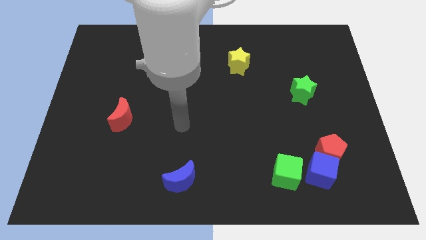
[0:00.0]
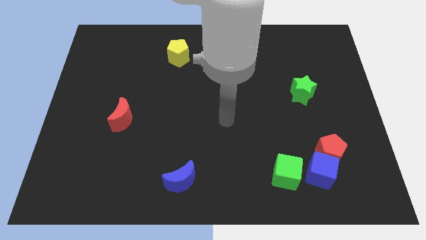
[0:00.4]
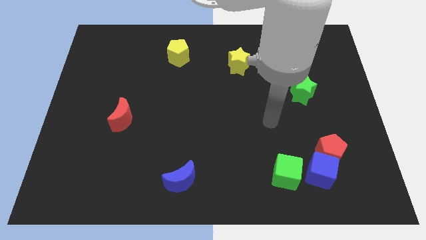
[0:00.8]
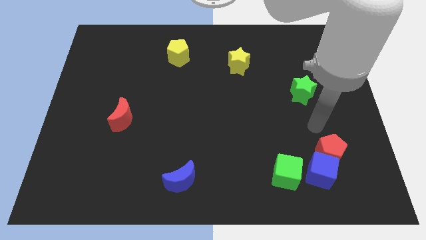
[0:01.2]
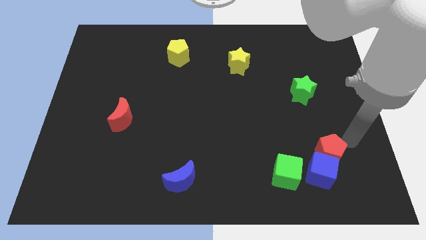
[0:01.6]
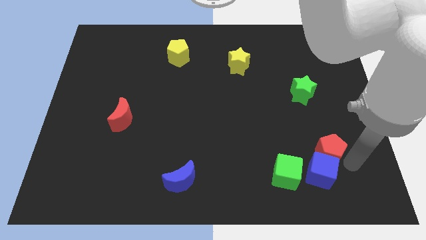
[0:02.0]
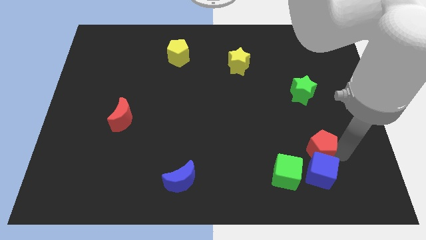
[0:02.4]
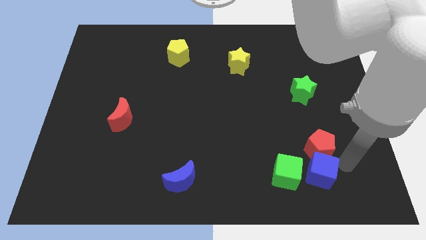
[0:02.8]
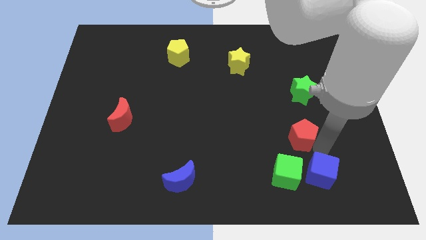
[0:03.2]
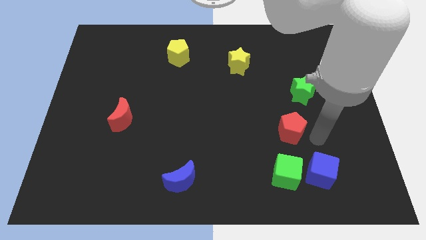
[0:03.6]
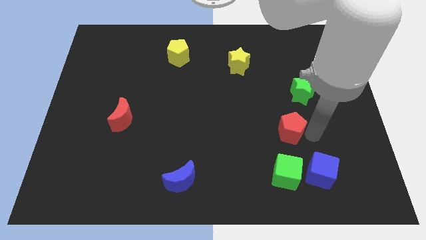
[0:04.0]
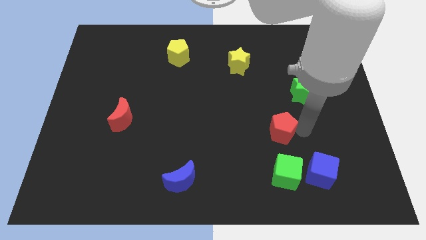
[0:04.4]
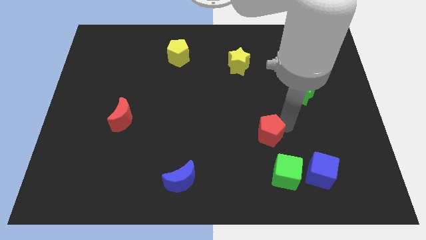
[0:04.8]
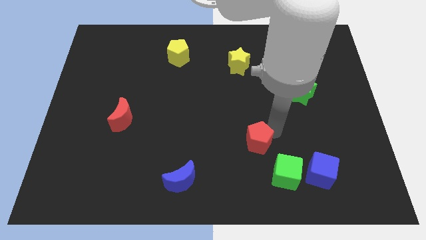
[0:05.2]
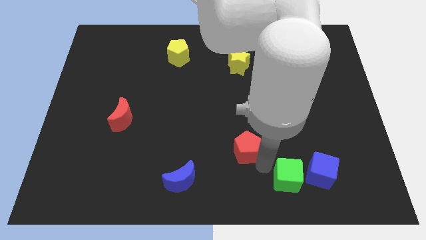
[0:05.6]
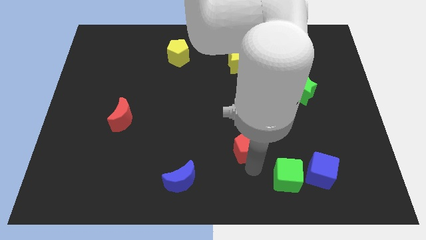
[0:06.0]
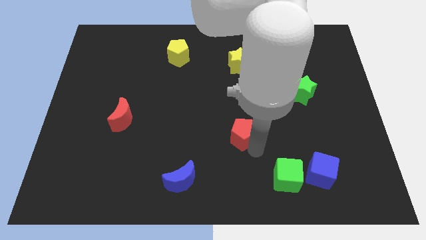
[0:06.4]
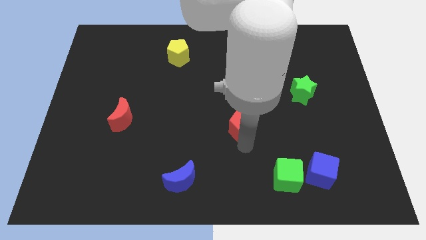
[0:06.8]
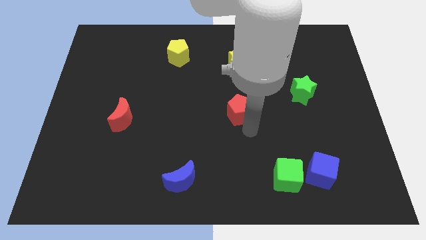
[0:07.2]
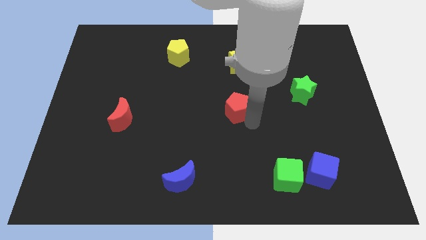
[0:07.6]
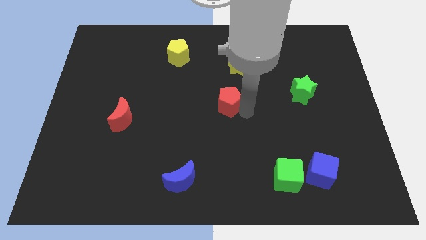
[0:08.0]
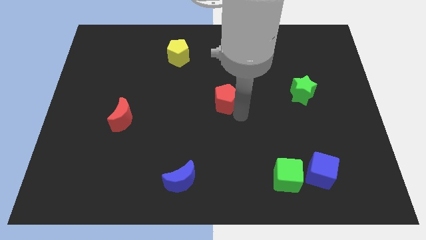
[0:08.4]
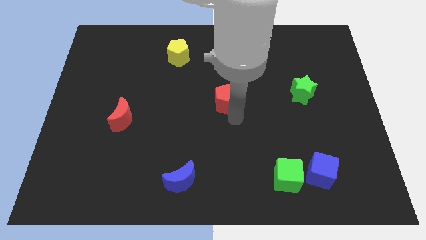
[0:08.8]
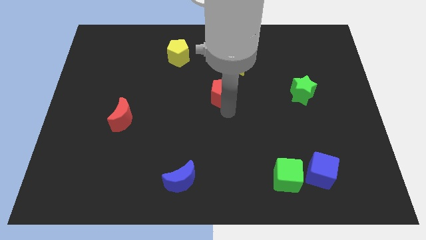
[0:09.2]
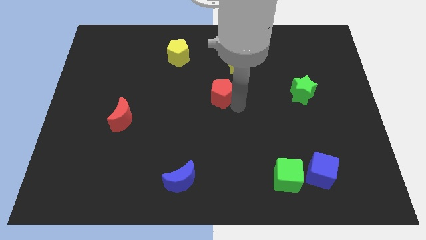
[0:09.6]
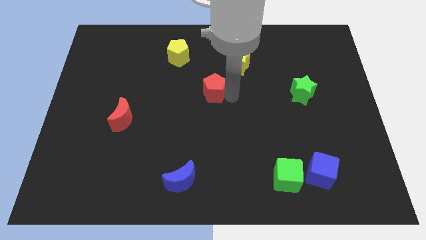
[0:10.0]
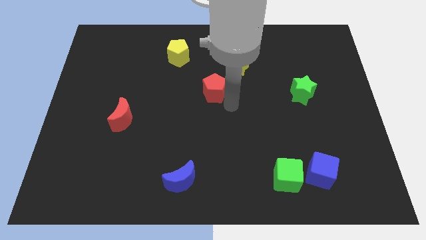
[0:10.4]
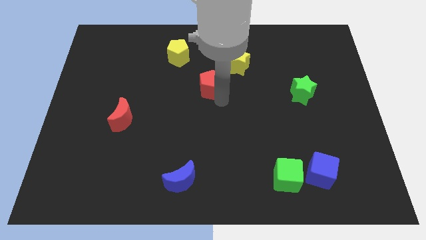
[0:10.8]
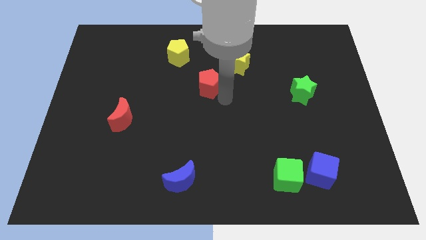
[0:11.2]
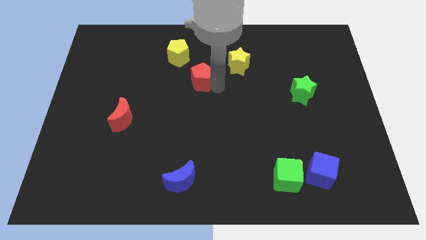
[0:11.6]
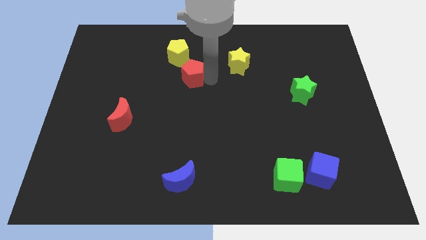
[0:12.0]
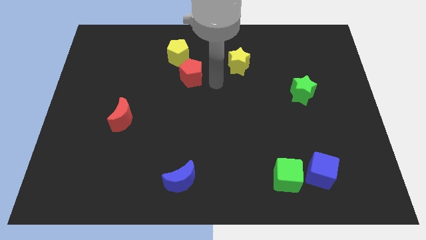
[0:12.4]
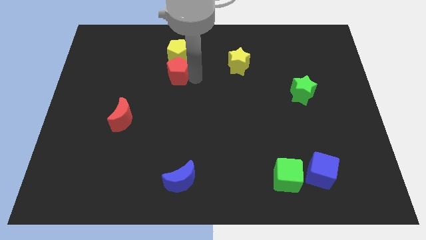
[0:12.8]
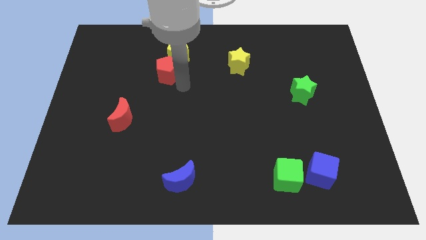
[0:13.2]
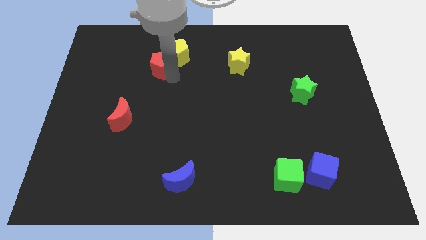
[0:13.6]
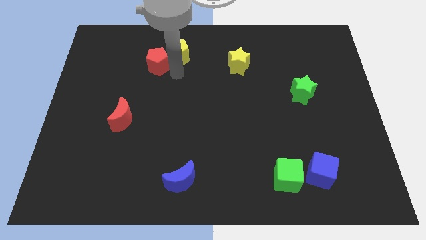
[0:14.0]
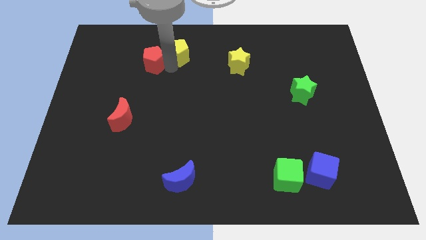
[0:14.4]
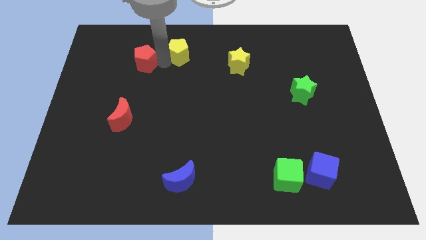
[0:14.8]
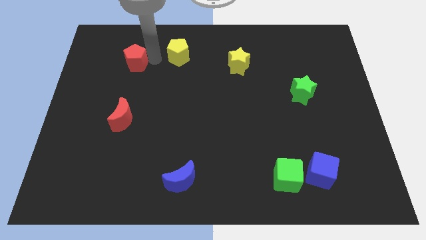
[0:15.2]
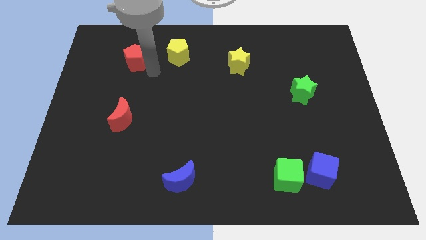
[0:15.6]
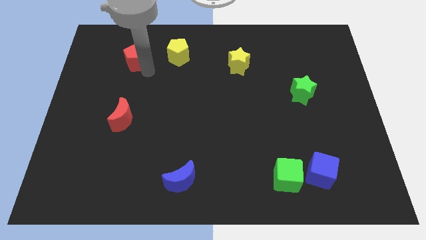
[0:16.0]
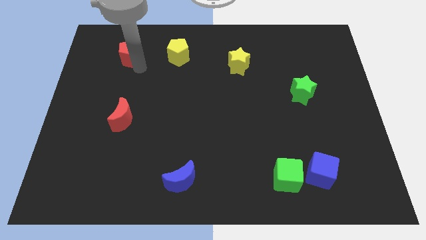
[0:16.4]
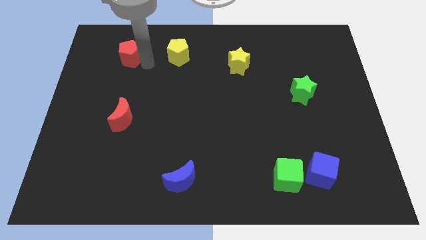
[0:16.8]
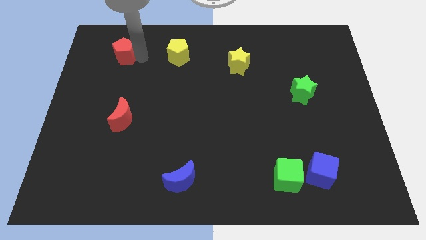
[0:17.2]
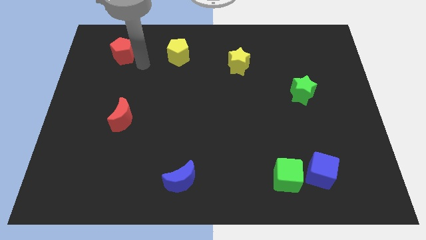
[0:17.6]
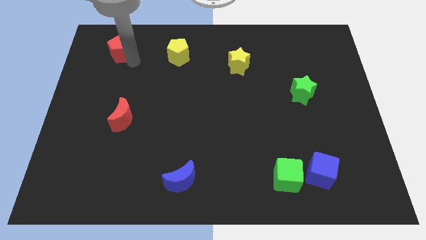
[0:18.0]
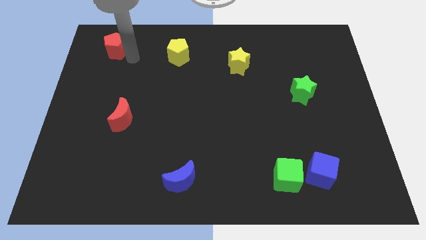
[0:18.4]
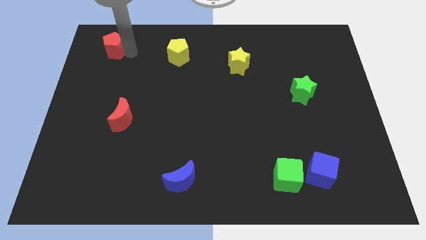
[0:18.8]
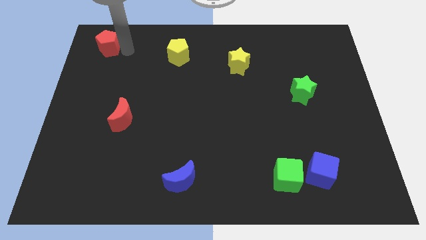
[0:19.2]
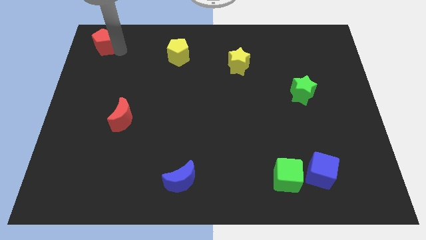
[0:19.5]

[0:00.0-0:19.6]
put the red pentagon to the top left of the board

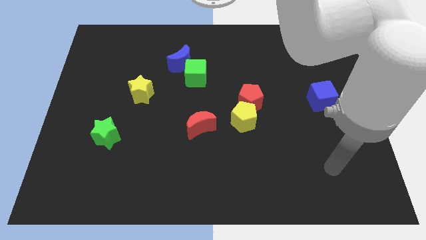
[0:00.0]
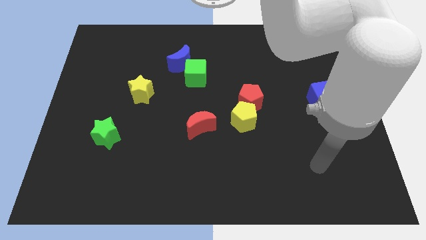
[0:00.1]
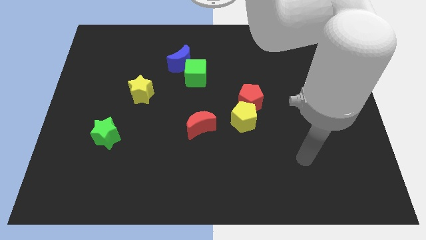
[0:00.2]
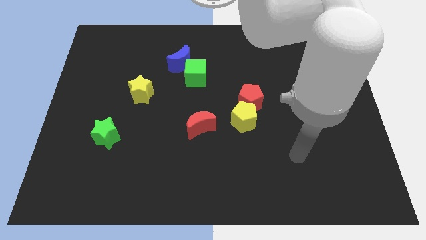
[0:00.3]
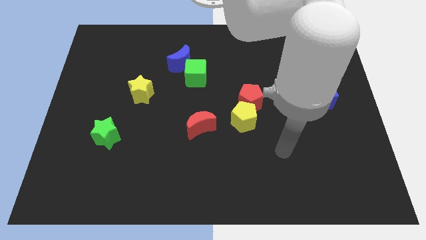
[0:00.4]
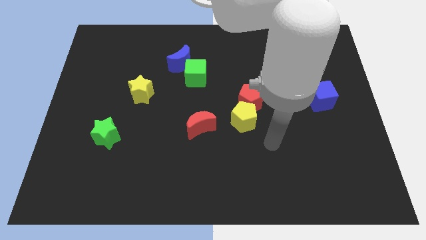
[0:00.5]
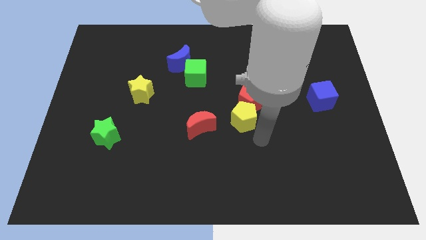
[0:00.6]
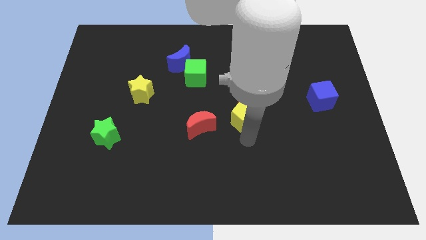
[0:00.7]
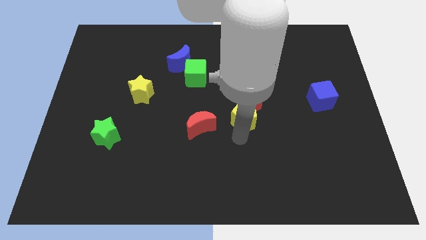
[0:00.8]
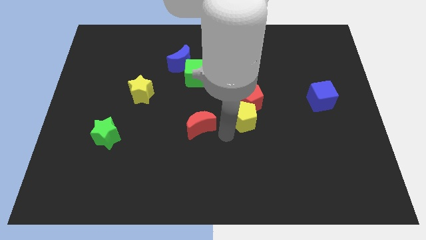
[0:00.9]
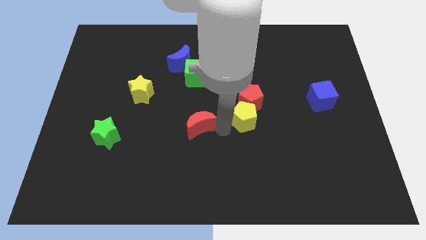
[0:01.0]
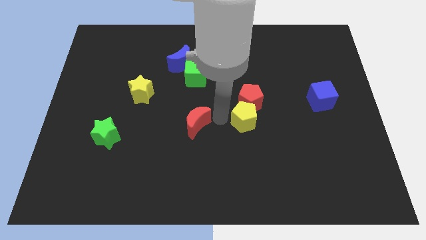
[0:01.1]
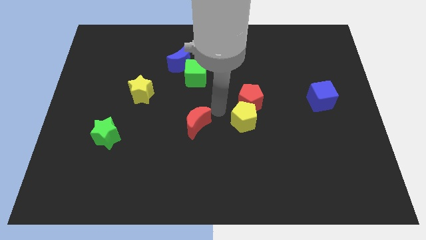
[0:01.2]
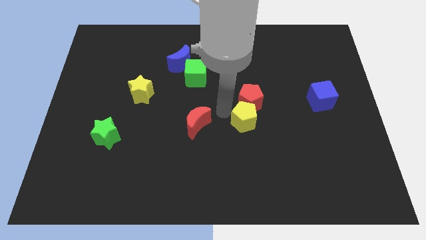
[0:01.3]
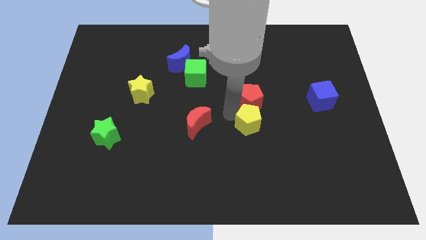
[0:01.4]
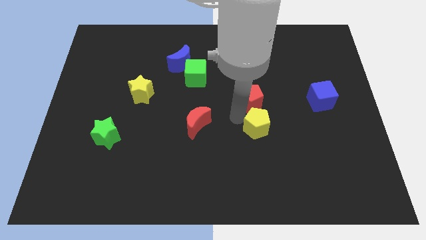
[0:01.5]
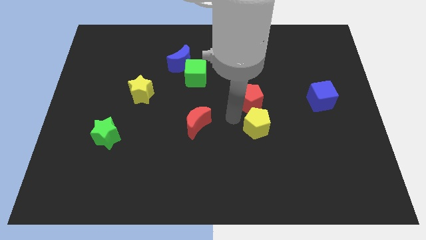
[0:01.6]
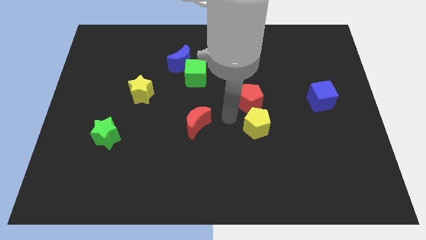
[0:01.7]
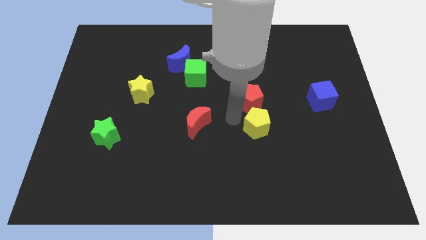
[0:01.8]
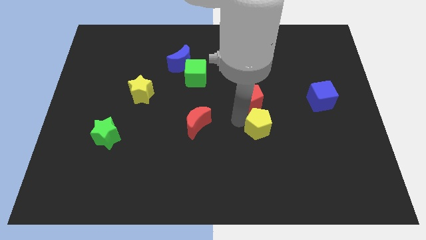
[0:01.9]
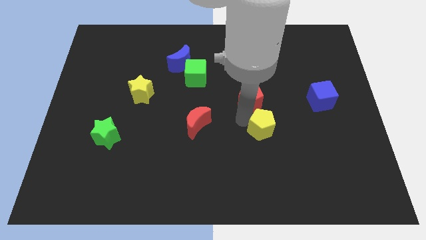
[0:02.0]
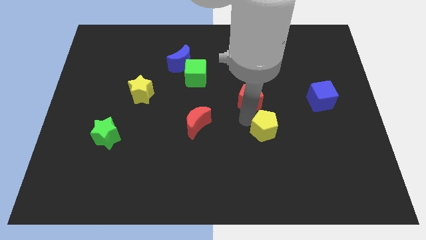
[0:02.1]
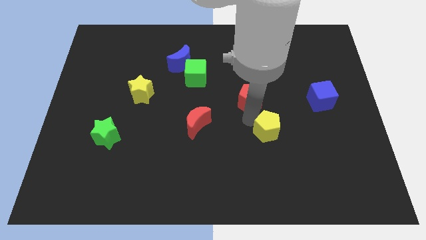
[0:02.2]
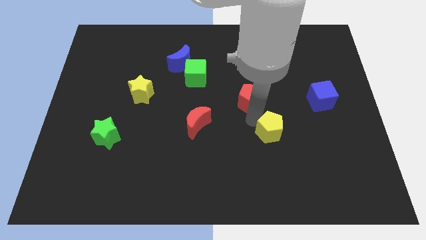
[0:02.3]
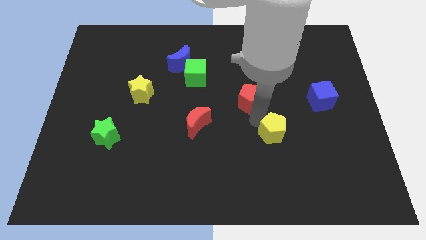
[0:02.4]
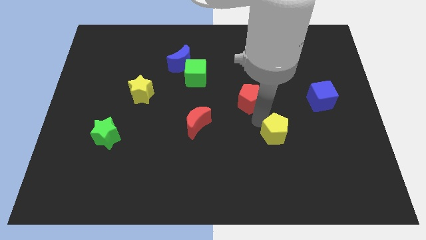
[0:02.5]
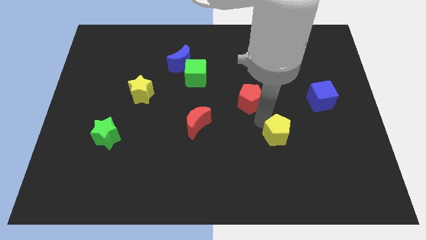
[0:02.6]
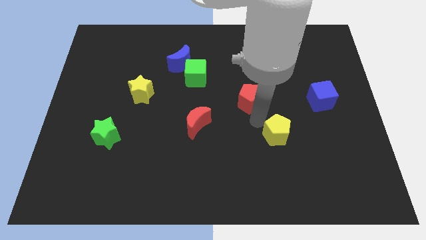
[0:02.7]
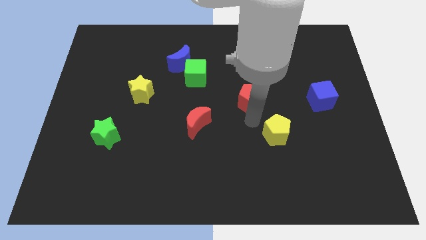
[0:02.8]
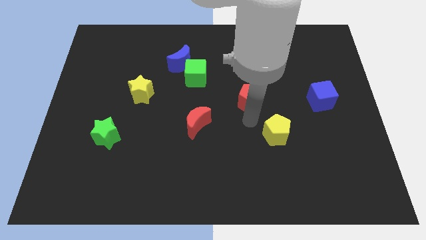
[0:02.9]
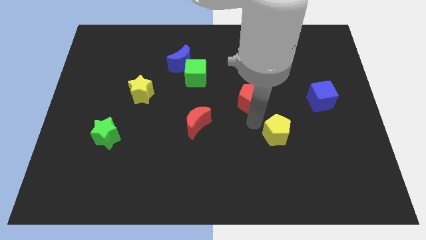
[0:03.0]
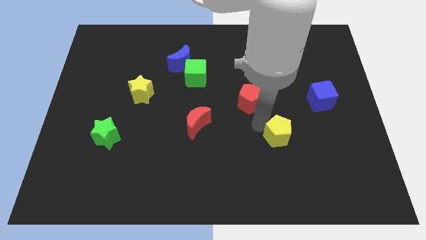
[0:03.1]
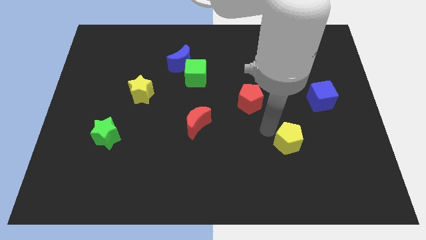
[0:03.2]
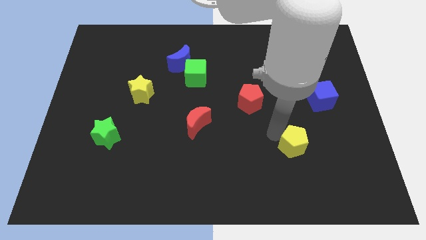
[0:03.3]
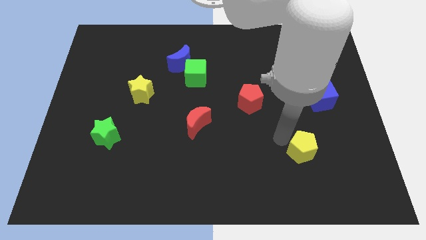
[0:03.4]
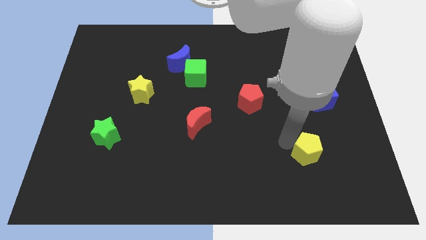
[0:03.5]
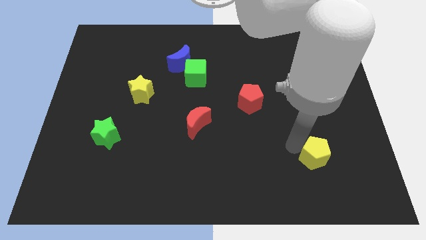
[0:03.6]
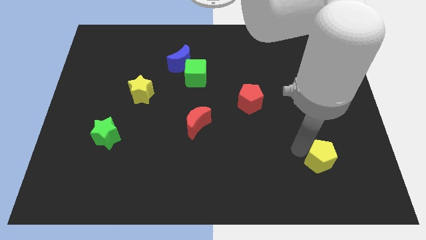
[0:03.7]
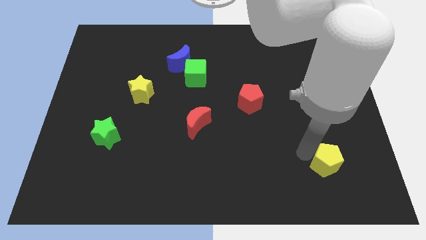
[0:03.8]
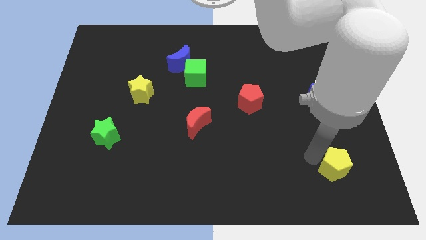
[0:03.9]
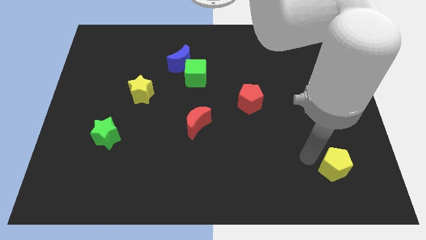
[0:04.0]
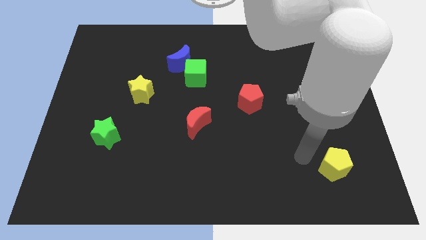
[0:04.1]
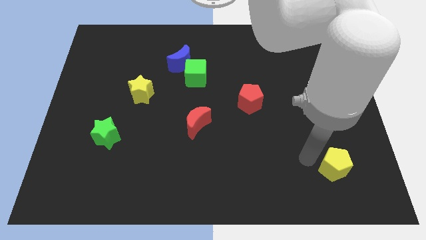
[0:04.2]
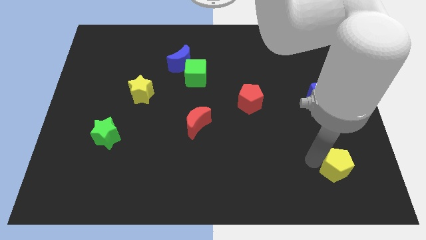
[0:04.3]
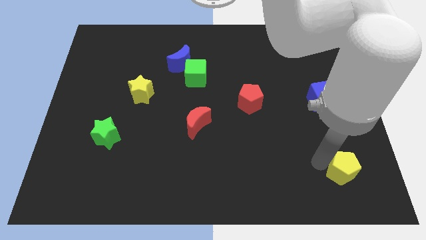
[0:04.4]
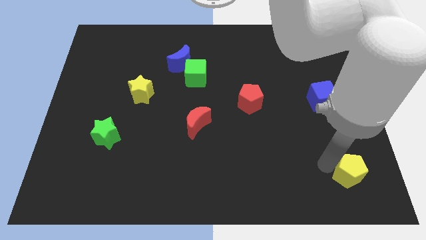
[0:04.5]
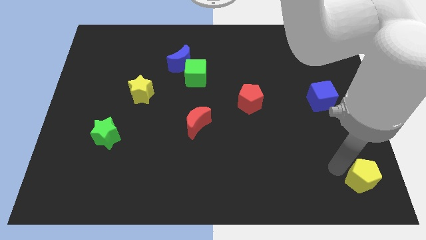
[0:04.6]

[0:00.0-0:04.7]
push the yellow pentagon to the bottom right of the board
